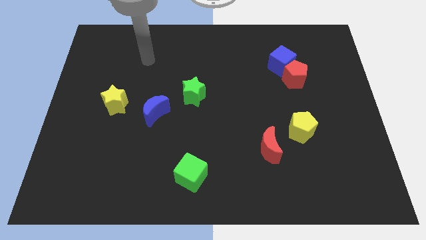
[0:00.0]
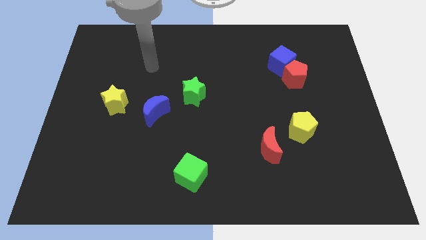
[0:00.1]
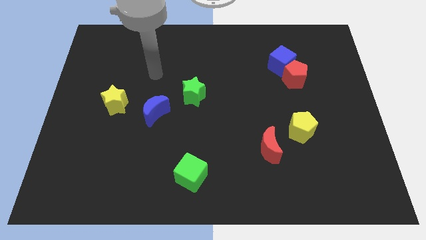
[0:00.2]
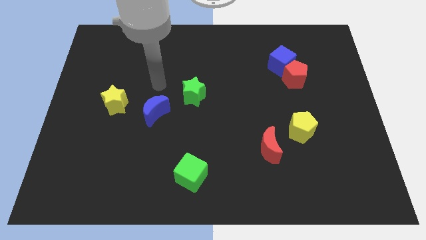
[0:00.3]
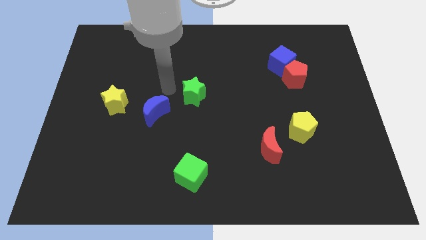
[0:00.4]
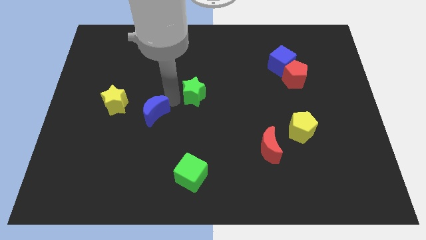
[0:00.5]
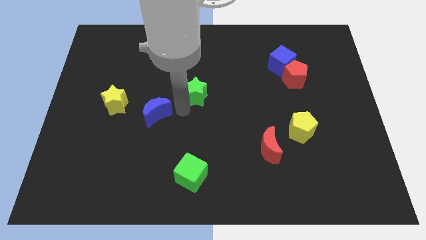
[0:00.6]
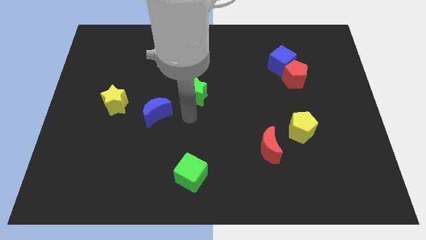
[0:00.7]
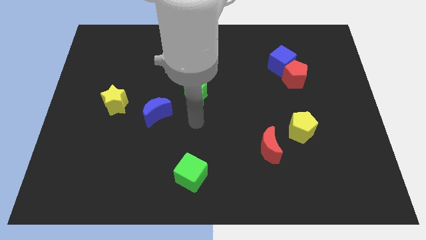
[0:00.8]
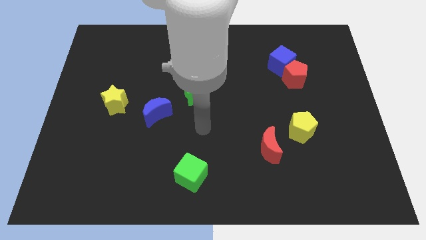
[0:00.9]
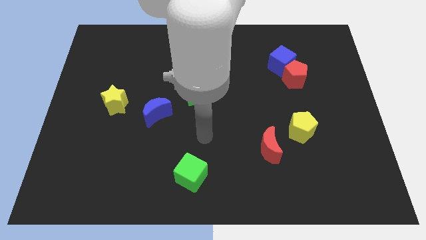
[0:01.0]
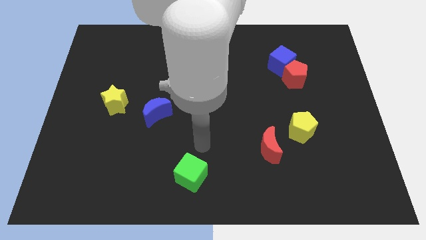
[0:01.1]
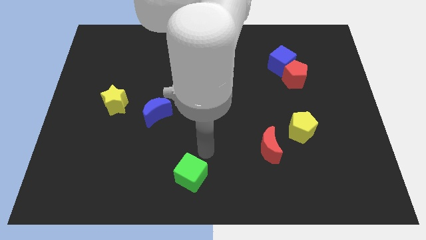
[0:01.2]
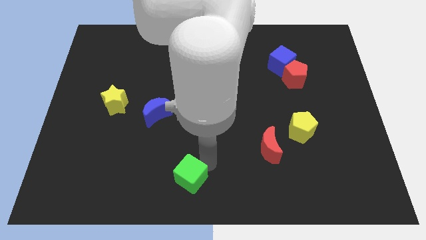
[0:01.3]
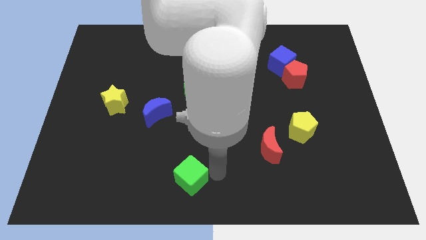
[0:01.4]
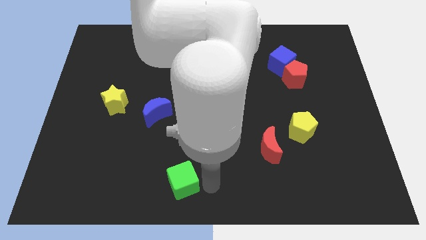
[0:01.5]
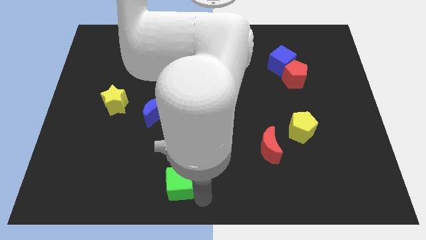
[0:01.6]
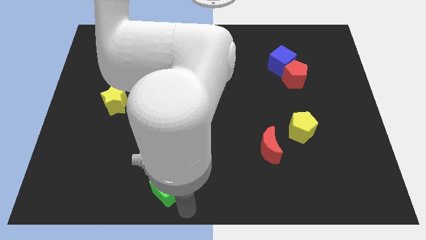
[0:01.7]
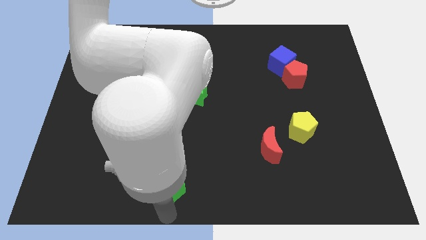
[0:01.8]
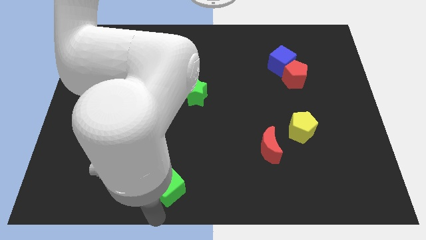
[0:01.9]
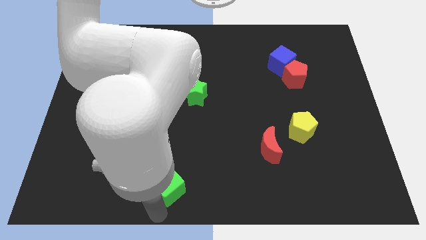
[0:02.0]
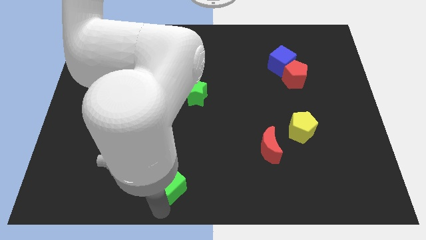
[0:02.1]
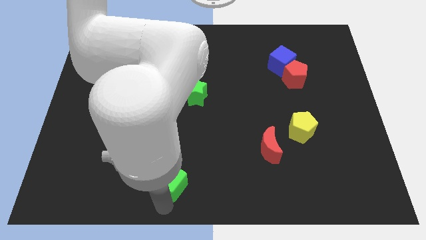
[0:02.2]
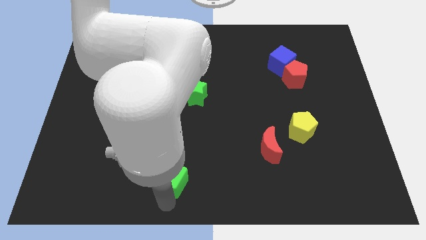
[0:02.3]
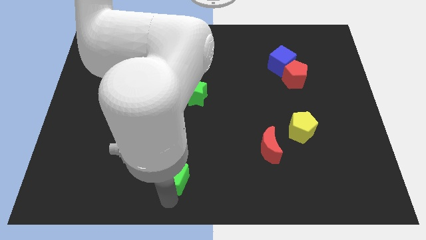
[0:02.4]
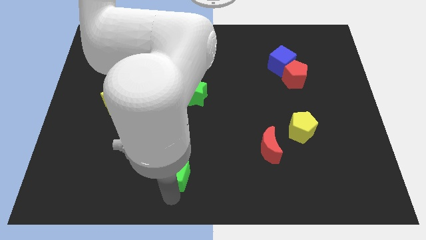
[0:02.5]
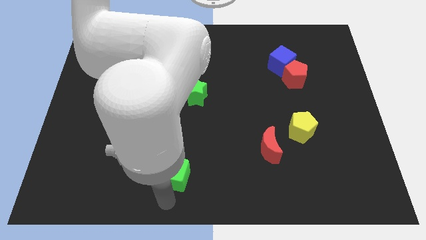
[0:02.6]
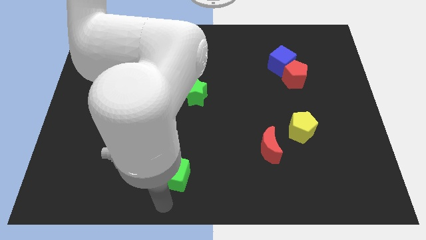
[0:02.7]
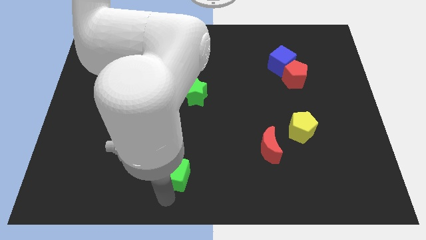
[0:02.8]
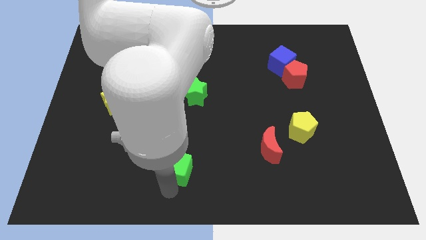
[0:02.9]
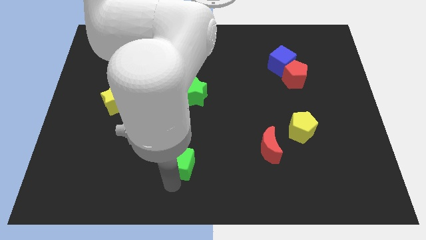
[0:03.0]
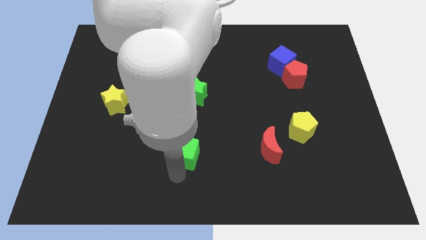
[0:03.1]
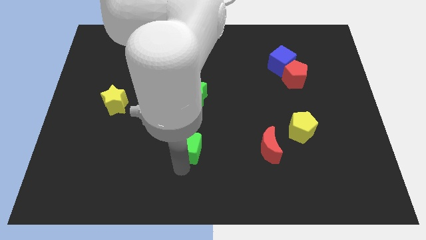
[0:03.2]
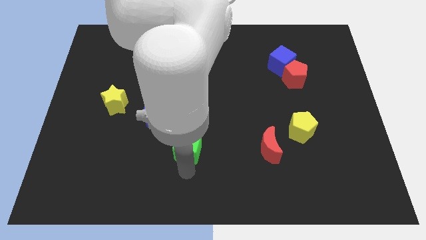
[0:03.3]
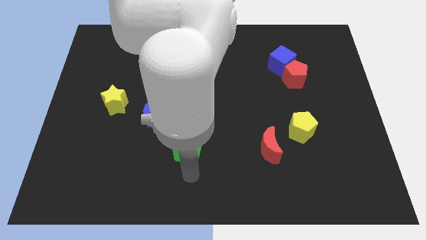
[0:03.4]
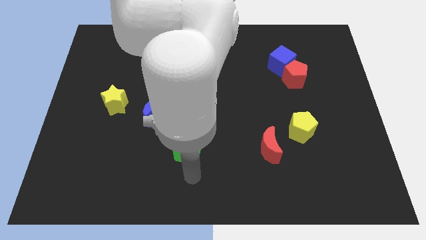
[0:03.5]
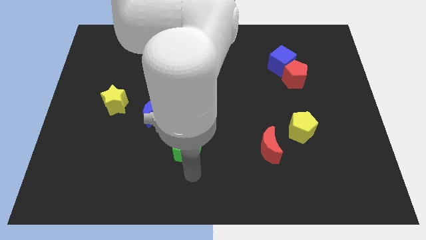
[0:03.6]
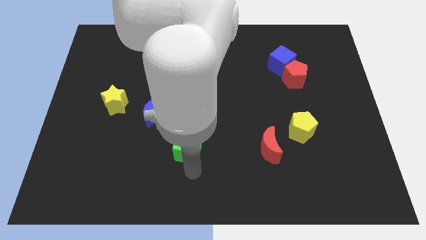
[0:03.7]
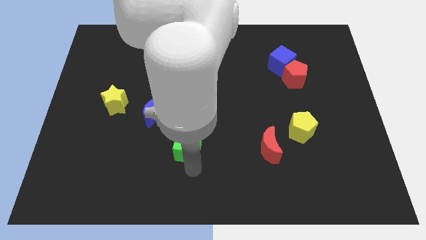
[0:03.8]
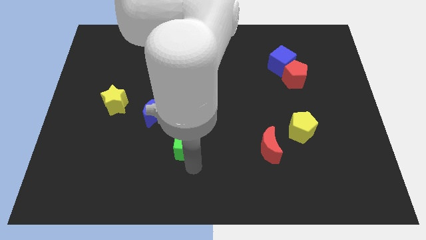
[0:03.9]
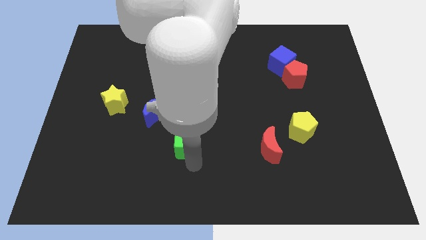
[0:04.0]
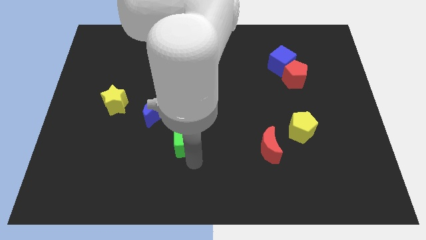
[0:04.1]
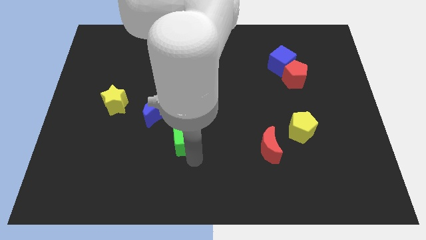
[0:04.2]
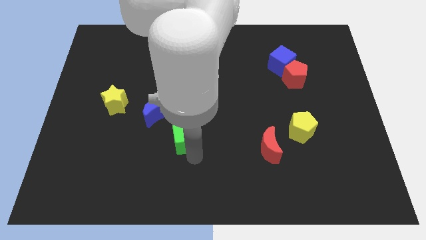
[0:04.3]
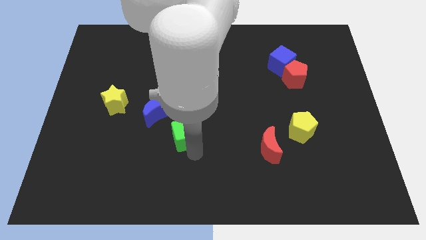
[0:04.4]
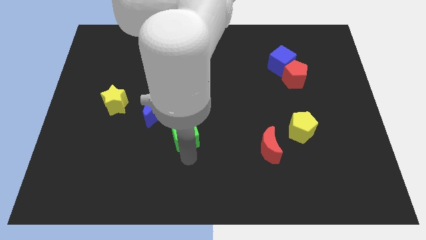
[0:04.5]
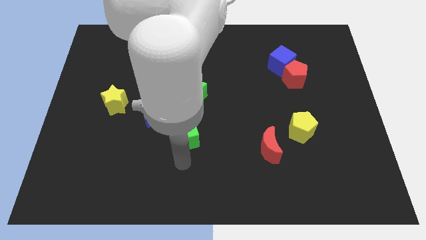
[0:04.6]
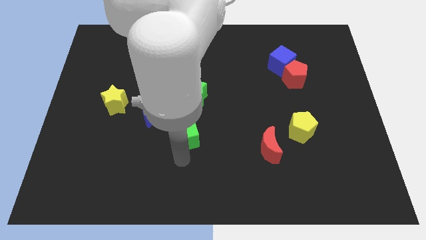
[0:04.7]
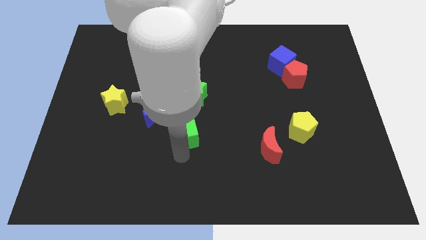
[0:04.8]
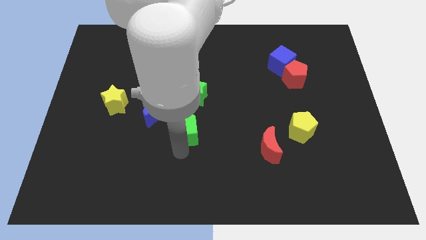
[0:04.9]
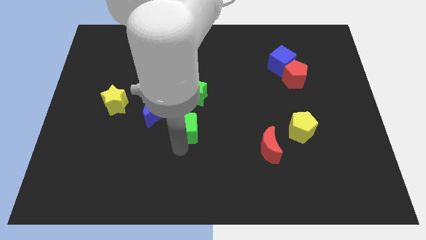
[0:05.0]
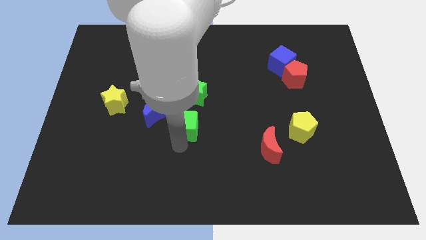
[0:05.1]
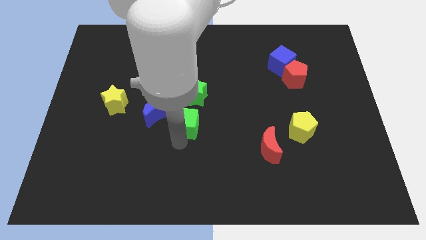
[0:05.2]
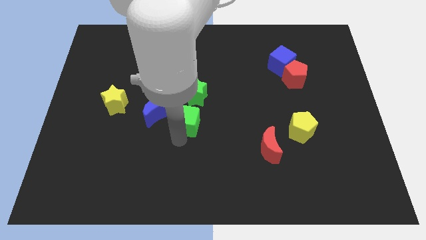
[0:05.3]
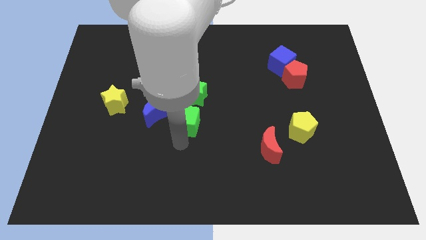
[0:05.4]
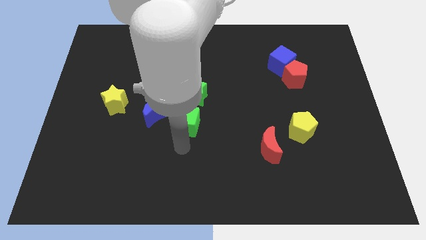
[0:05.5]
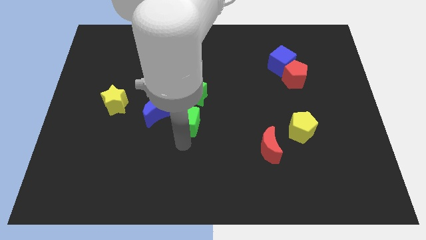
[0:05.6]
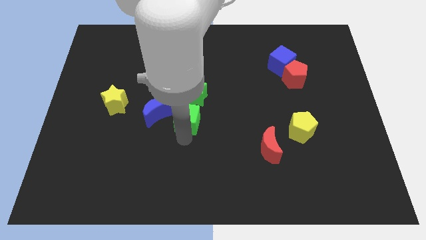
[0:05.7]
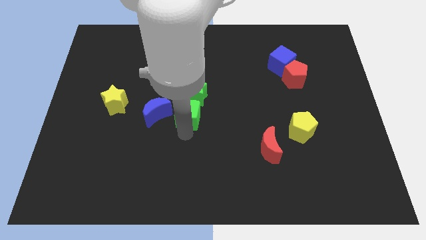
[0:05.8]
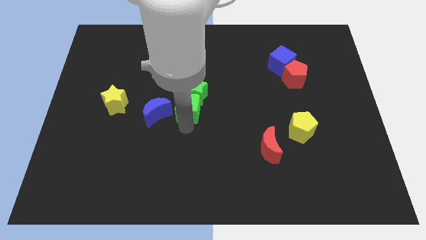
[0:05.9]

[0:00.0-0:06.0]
move the green cube to the green star

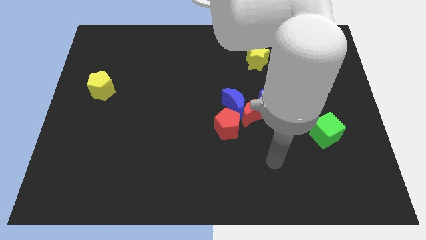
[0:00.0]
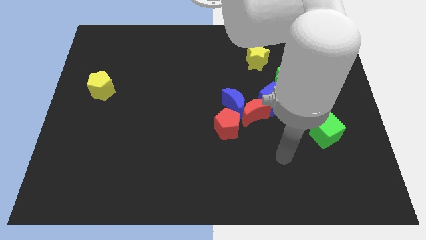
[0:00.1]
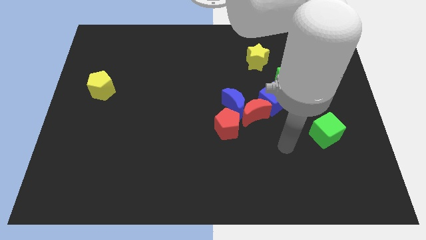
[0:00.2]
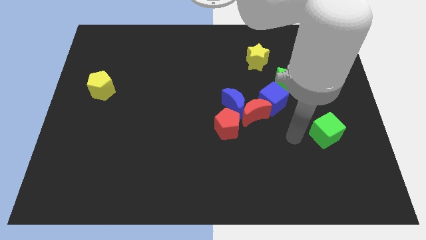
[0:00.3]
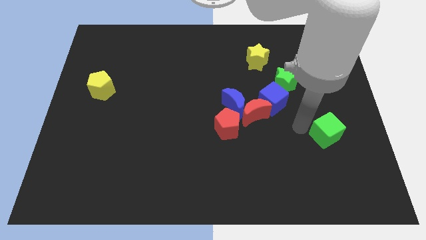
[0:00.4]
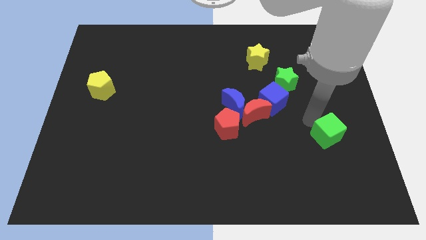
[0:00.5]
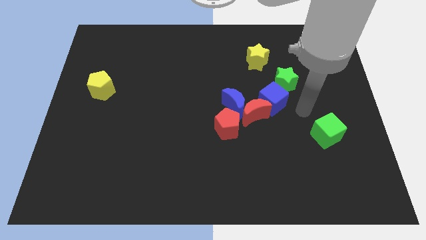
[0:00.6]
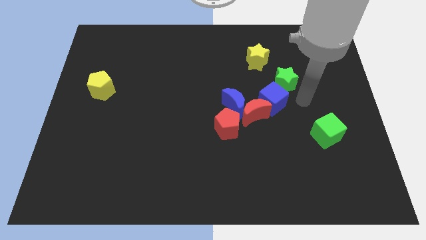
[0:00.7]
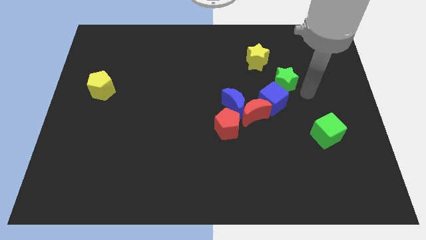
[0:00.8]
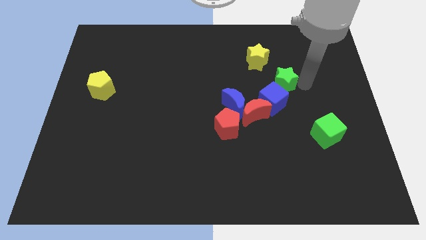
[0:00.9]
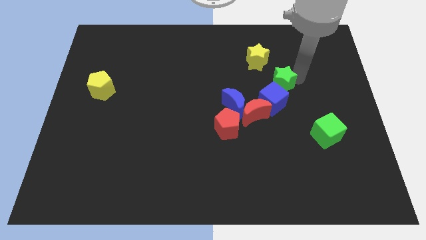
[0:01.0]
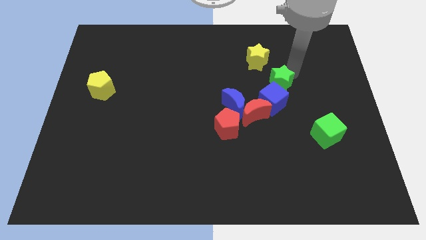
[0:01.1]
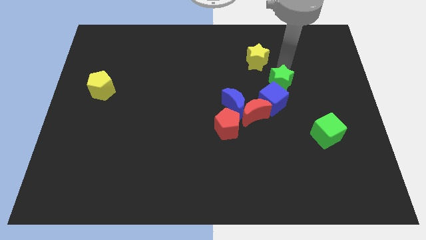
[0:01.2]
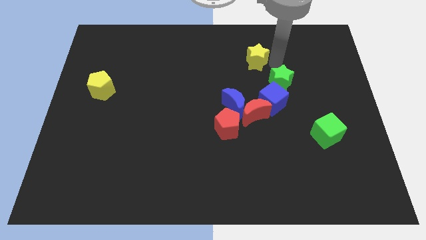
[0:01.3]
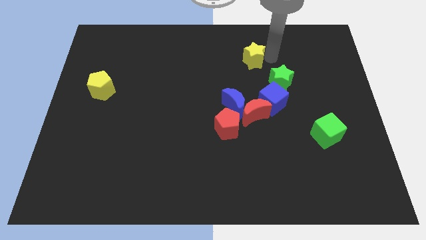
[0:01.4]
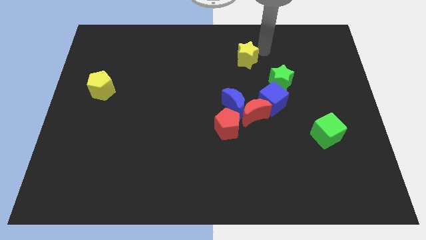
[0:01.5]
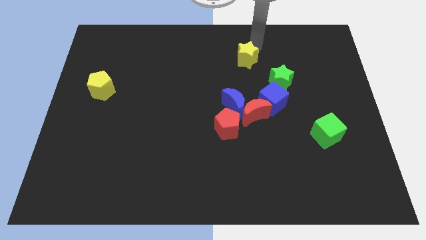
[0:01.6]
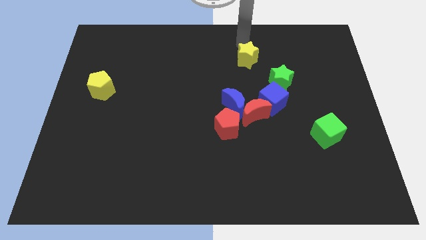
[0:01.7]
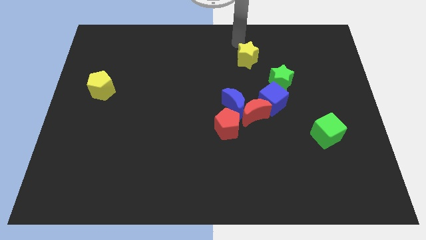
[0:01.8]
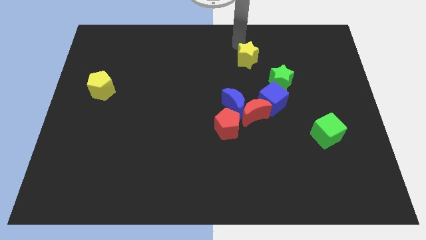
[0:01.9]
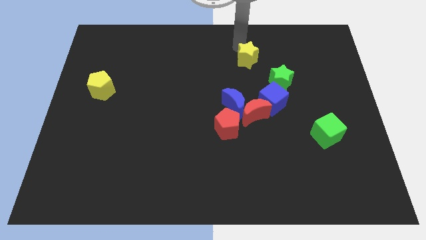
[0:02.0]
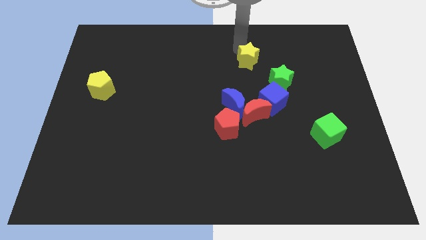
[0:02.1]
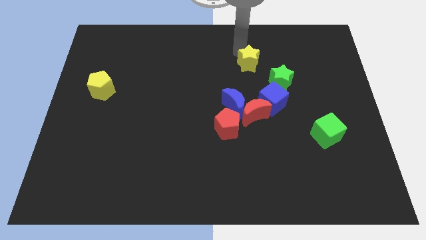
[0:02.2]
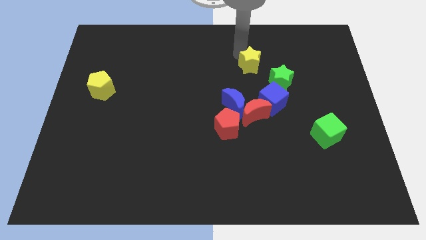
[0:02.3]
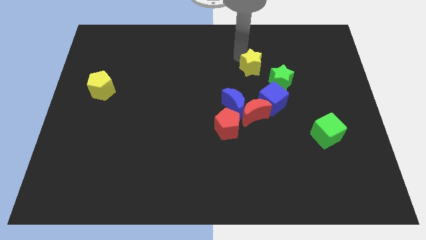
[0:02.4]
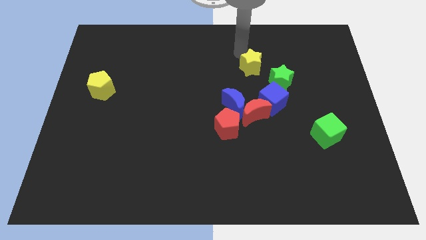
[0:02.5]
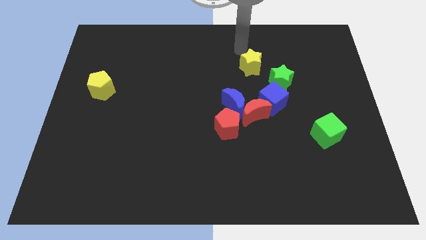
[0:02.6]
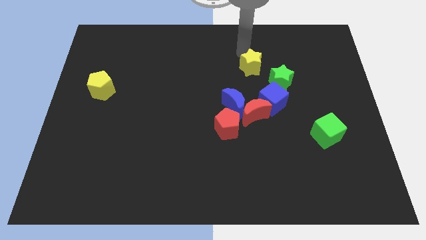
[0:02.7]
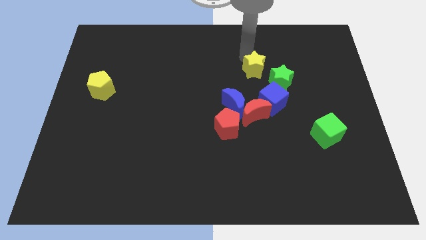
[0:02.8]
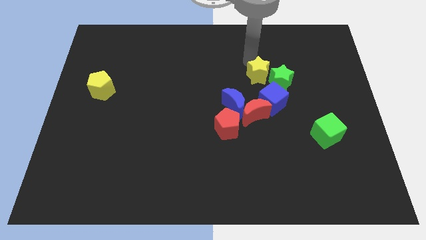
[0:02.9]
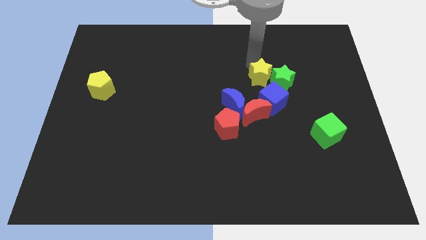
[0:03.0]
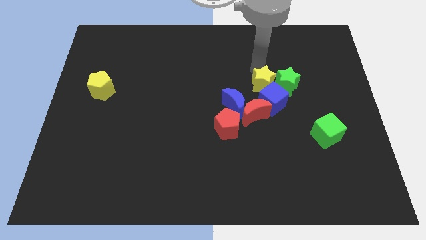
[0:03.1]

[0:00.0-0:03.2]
put the yellow star close to the blue cube
